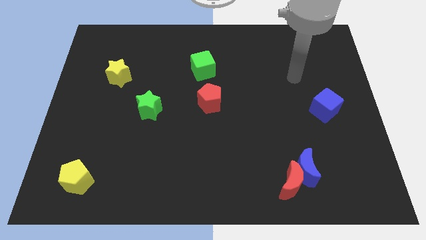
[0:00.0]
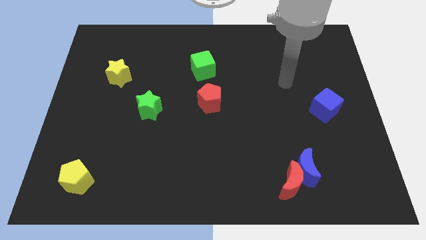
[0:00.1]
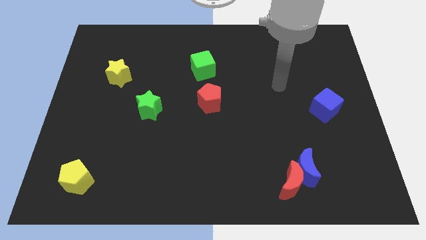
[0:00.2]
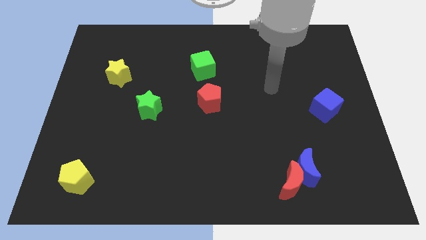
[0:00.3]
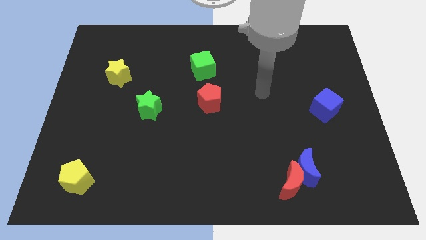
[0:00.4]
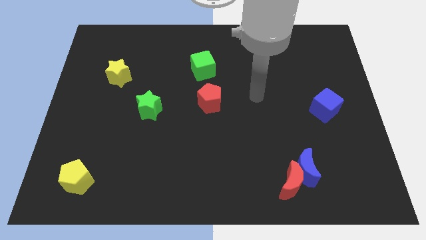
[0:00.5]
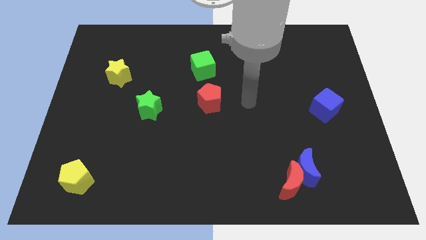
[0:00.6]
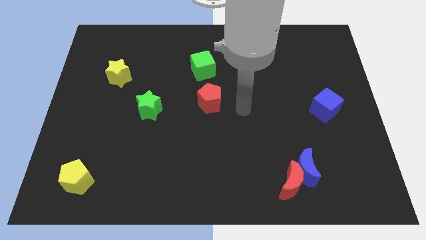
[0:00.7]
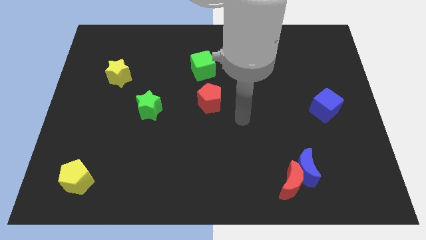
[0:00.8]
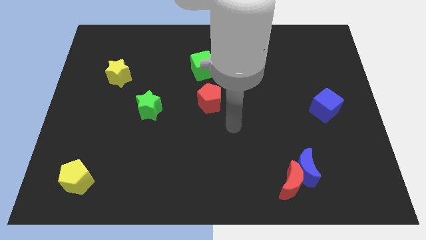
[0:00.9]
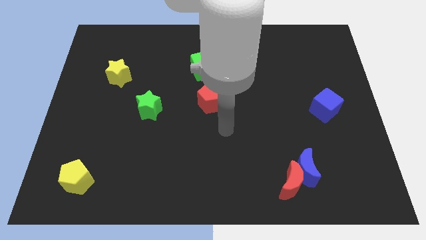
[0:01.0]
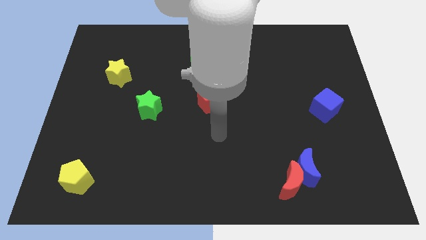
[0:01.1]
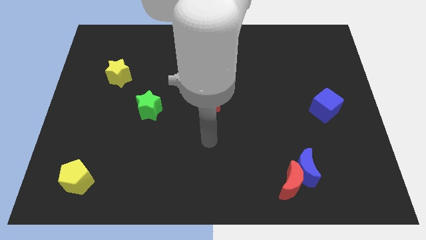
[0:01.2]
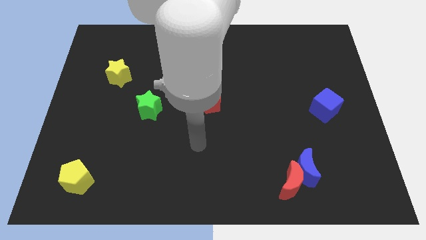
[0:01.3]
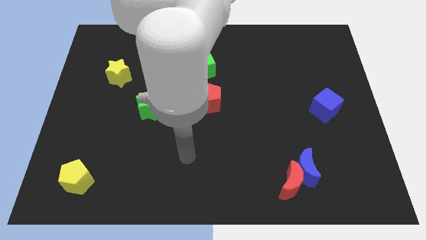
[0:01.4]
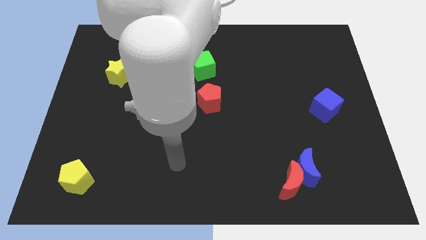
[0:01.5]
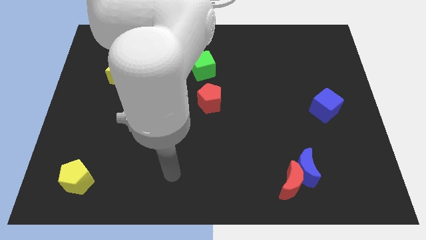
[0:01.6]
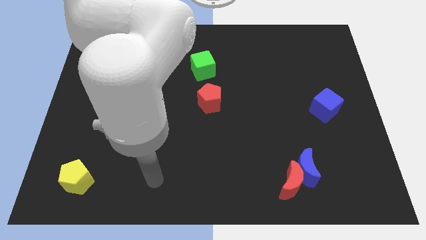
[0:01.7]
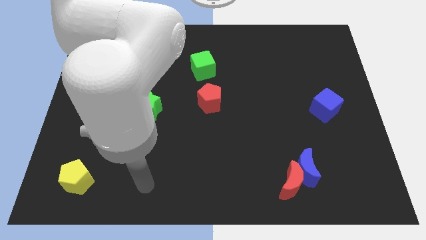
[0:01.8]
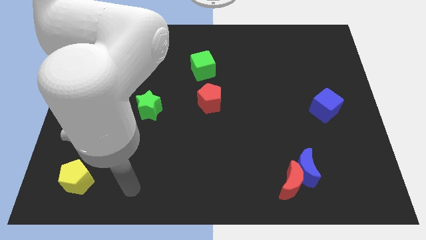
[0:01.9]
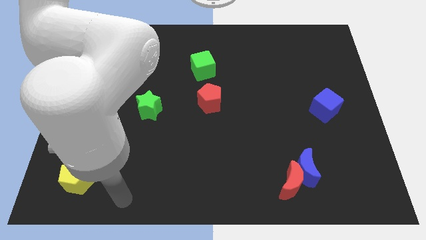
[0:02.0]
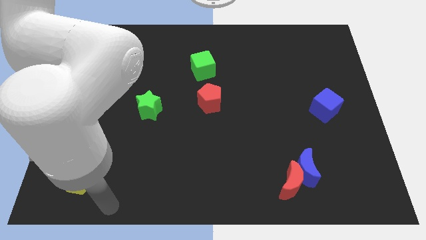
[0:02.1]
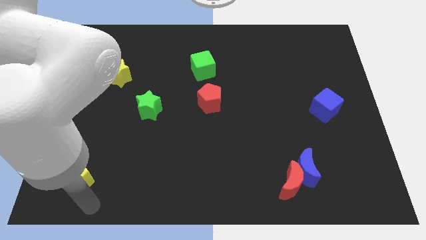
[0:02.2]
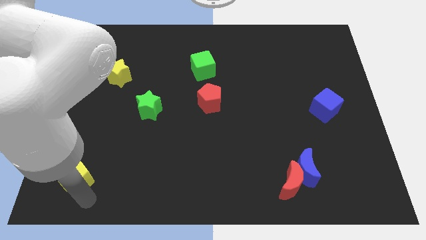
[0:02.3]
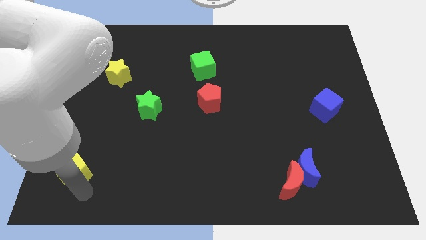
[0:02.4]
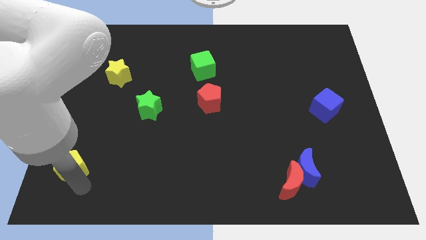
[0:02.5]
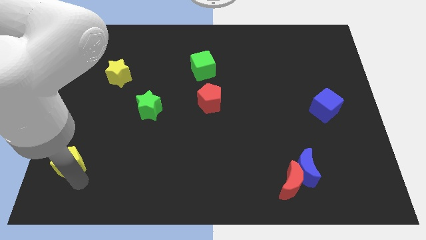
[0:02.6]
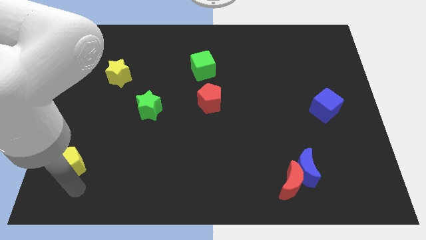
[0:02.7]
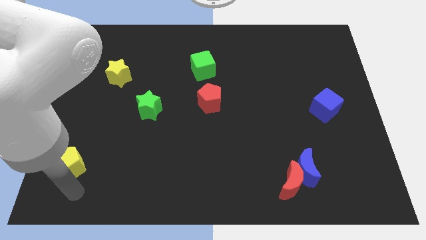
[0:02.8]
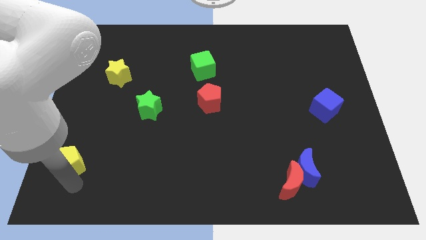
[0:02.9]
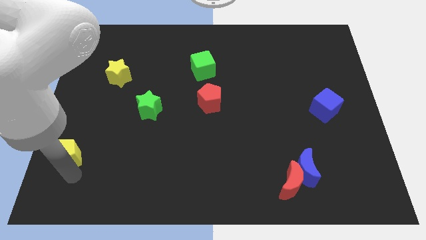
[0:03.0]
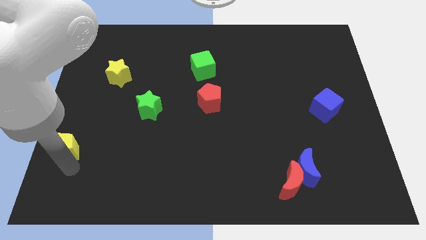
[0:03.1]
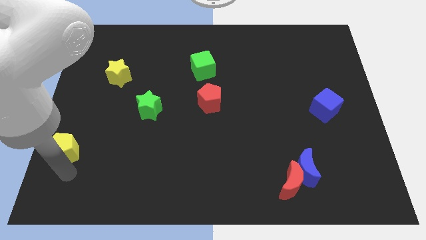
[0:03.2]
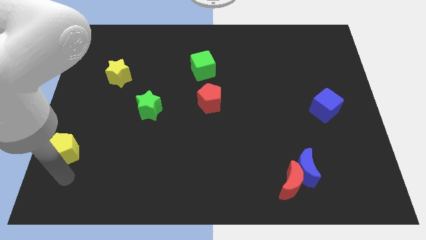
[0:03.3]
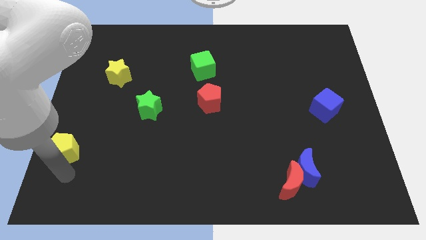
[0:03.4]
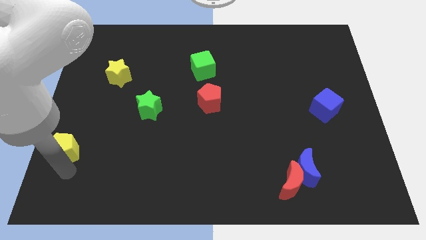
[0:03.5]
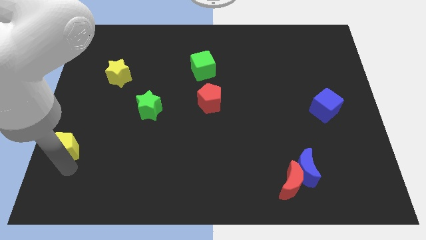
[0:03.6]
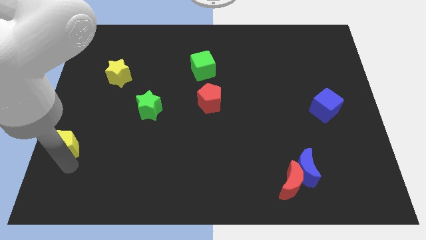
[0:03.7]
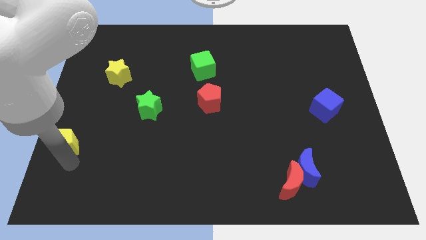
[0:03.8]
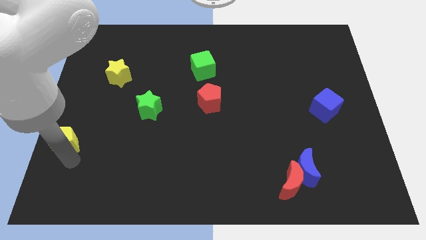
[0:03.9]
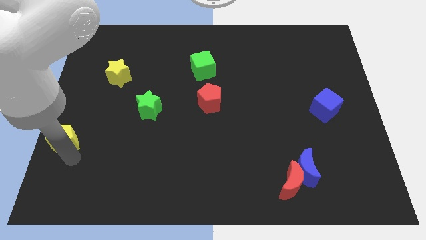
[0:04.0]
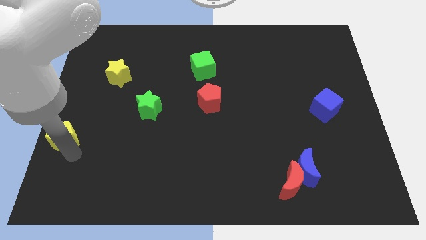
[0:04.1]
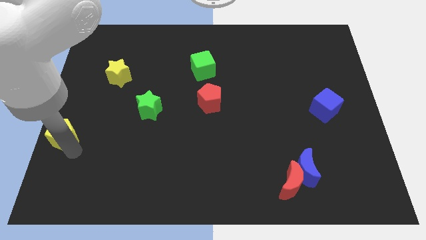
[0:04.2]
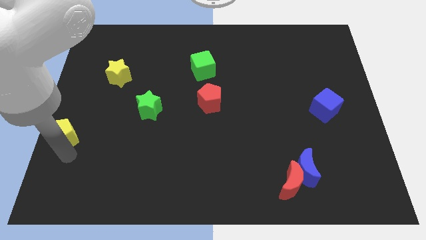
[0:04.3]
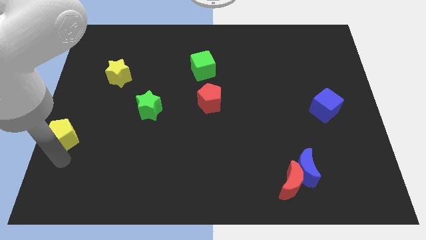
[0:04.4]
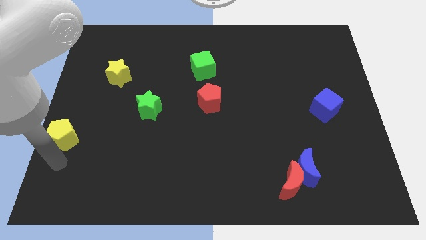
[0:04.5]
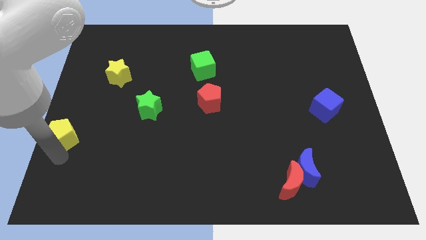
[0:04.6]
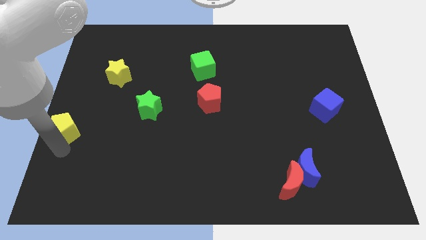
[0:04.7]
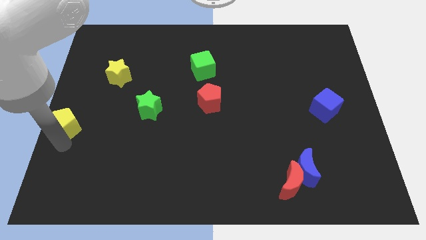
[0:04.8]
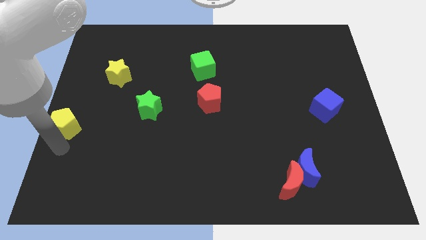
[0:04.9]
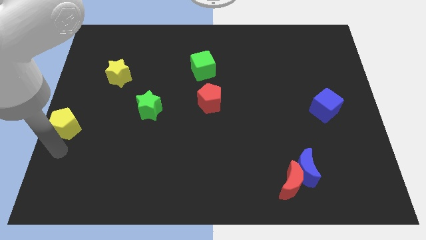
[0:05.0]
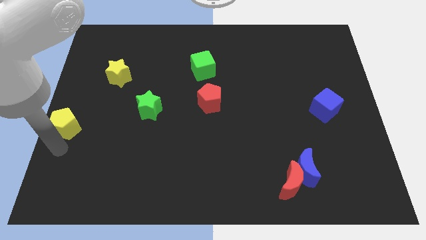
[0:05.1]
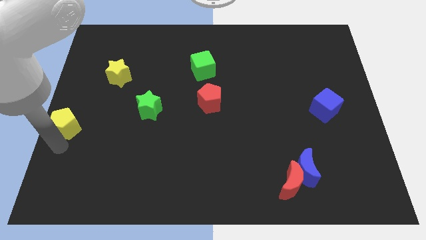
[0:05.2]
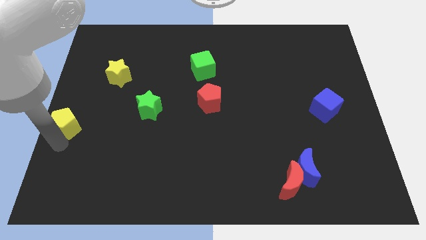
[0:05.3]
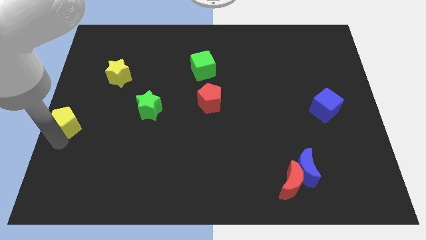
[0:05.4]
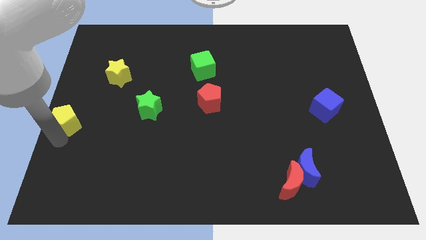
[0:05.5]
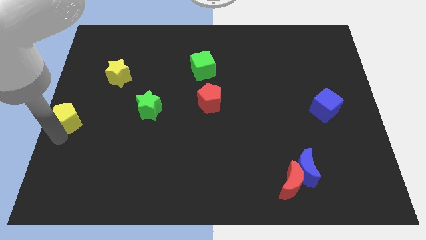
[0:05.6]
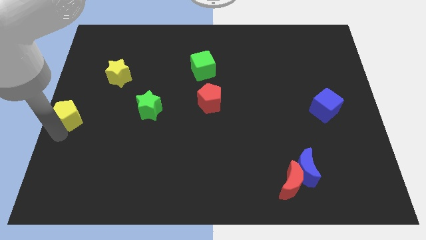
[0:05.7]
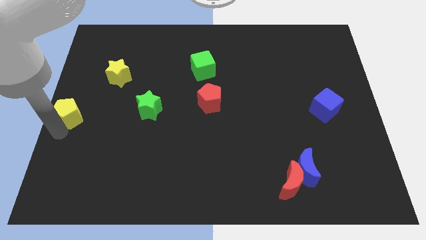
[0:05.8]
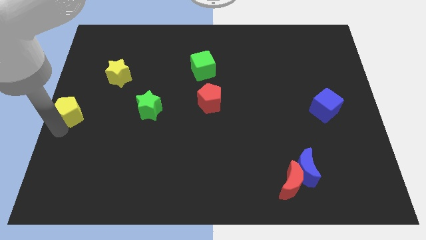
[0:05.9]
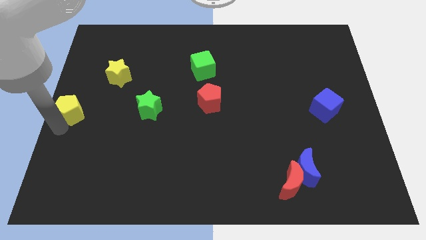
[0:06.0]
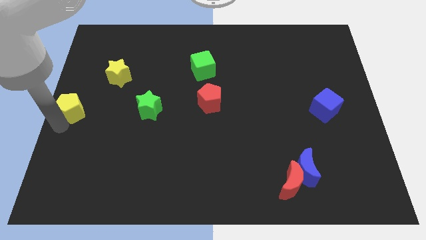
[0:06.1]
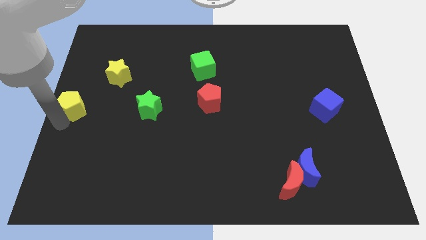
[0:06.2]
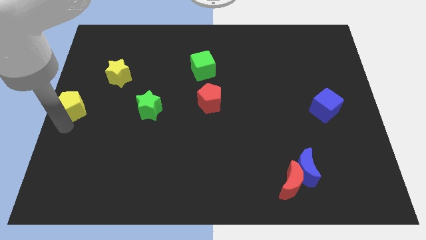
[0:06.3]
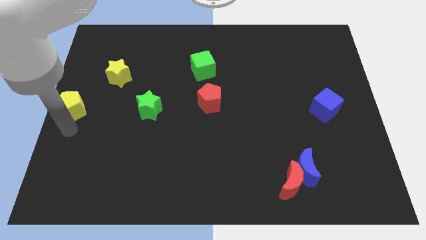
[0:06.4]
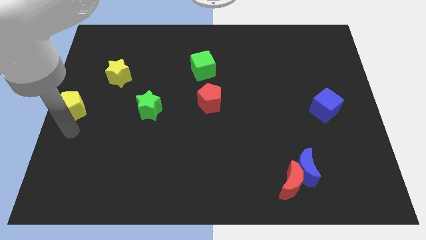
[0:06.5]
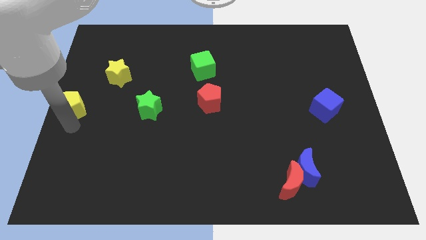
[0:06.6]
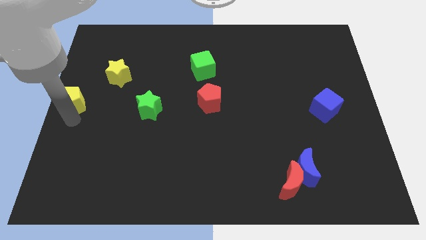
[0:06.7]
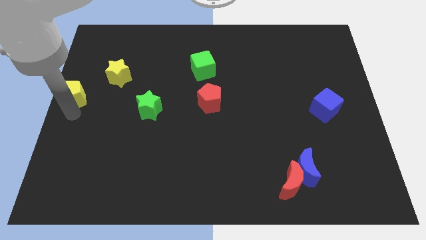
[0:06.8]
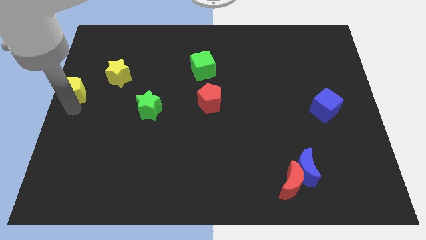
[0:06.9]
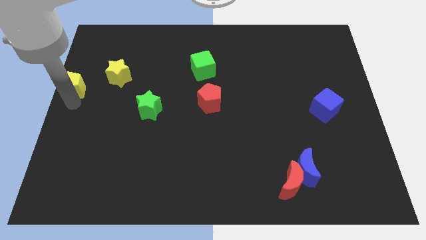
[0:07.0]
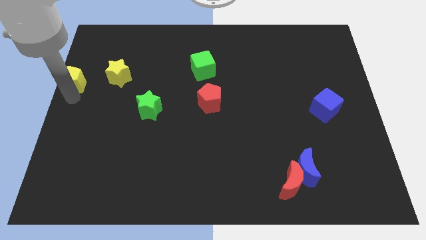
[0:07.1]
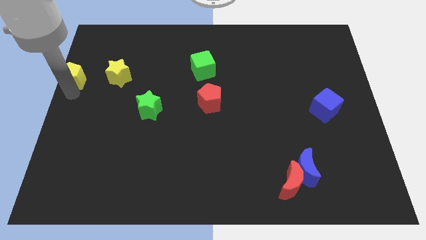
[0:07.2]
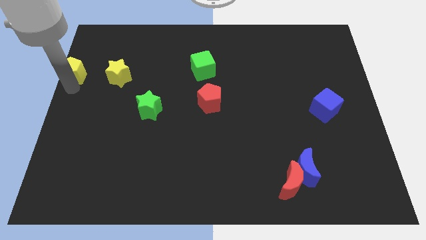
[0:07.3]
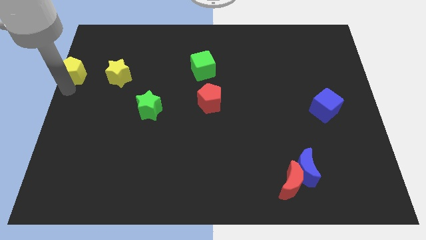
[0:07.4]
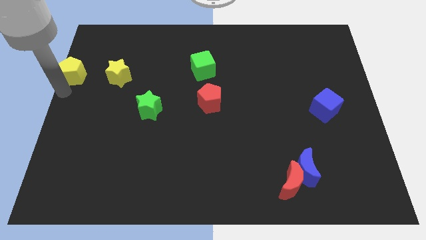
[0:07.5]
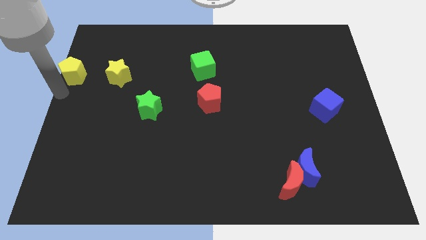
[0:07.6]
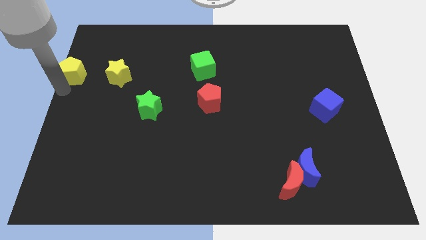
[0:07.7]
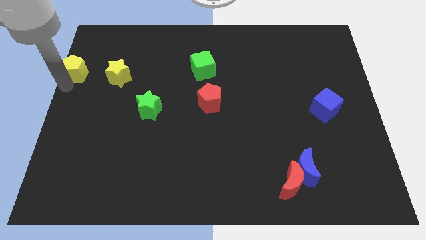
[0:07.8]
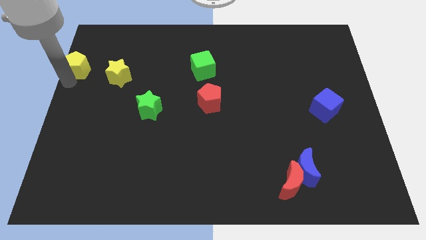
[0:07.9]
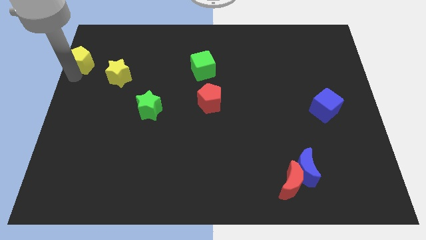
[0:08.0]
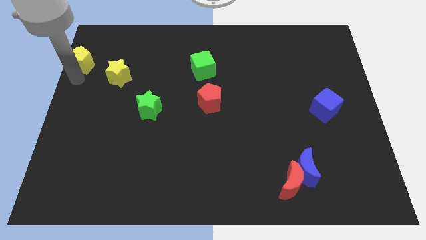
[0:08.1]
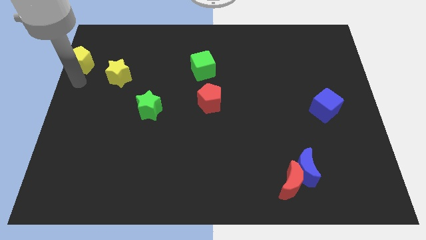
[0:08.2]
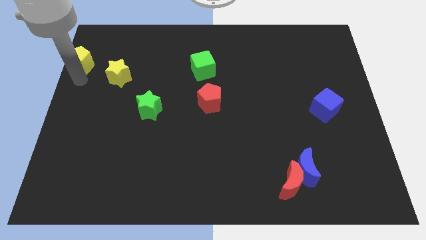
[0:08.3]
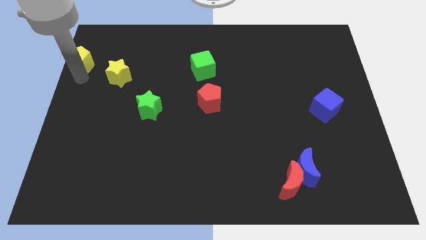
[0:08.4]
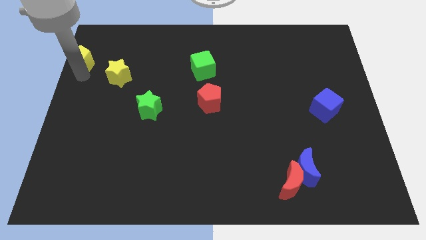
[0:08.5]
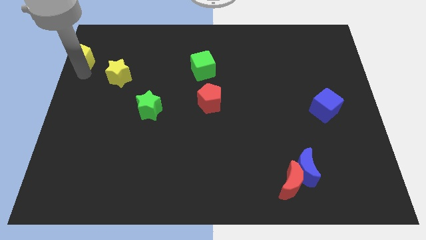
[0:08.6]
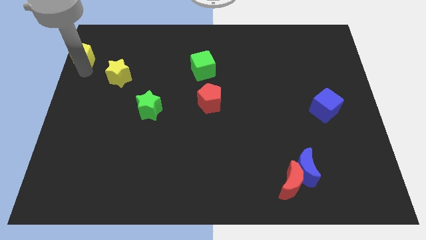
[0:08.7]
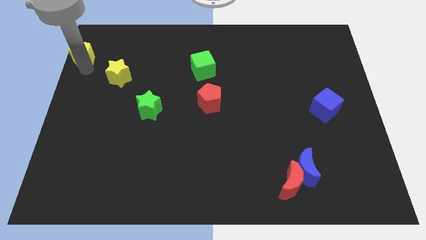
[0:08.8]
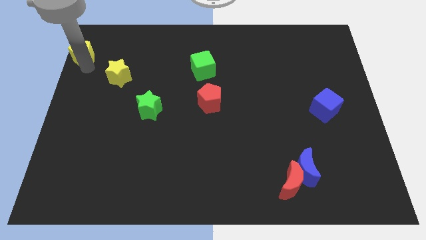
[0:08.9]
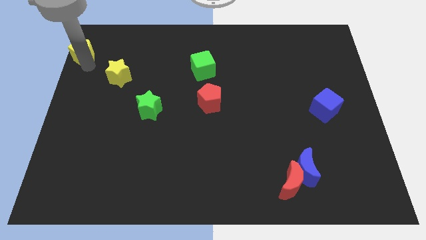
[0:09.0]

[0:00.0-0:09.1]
push the yellow pentagon to the upper left corner
